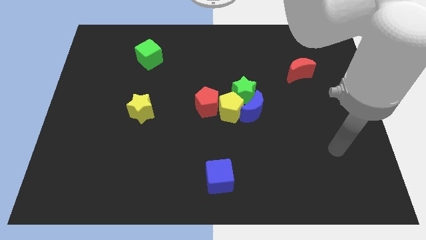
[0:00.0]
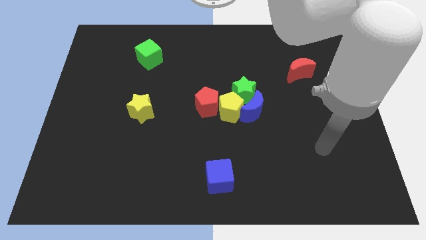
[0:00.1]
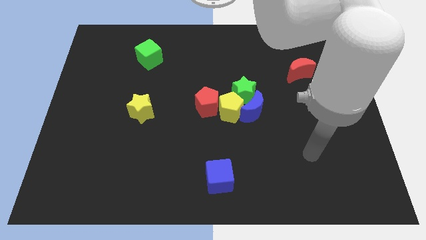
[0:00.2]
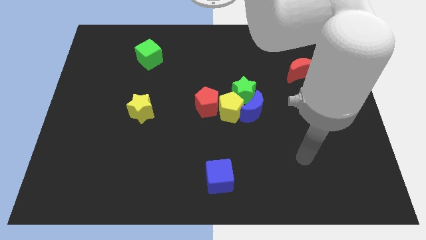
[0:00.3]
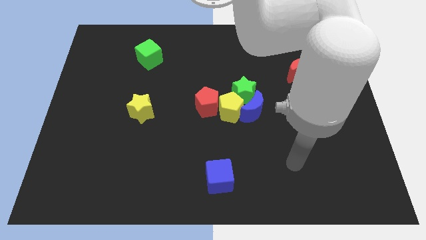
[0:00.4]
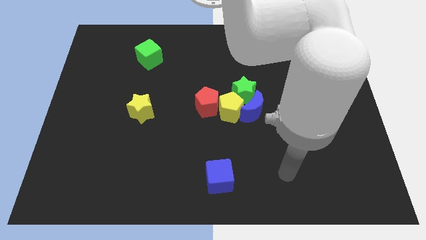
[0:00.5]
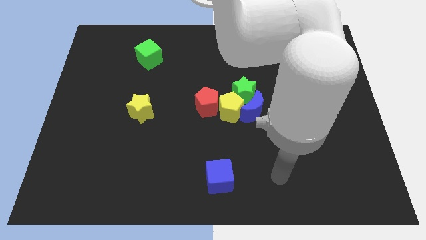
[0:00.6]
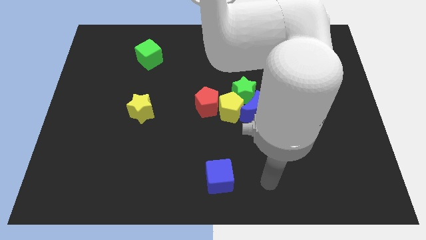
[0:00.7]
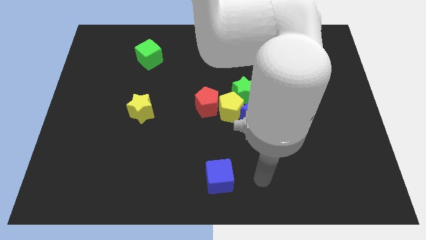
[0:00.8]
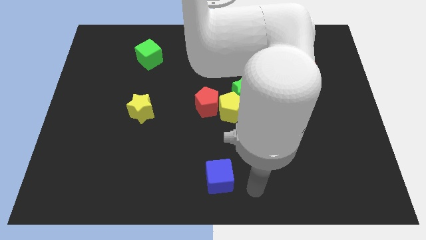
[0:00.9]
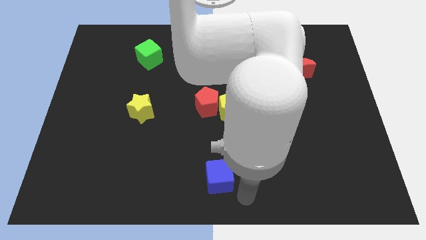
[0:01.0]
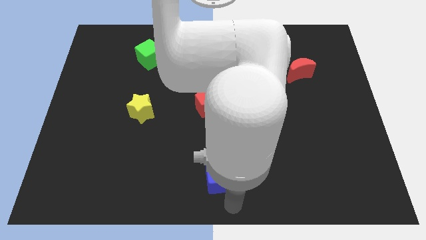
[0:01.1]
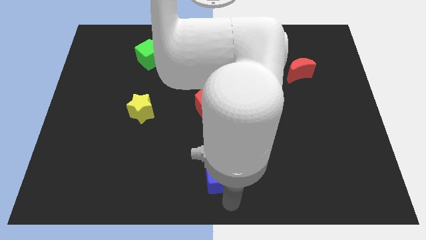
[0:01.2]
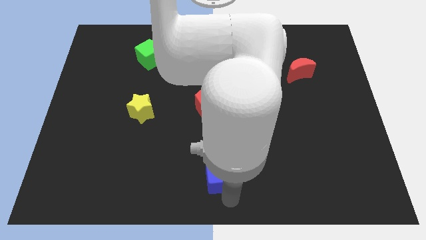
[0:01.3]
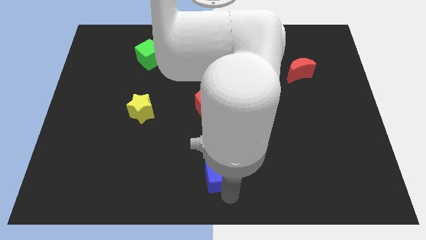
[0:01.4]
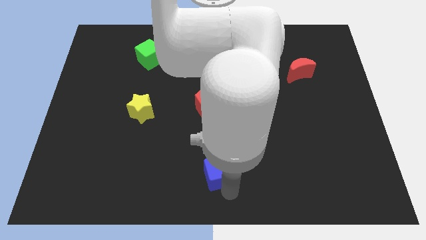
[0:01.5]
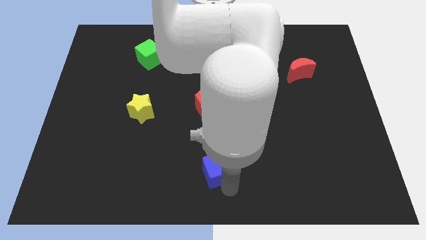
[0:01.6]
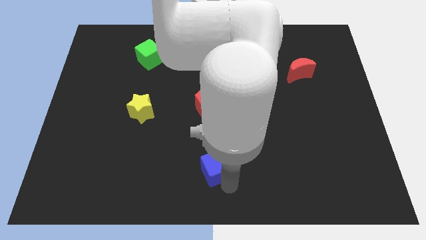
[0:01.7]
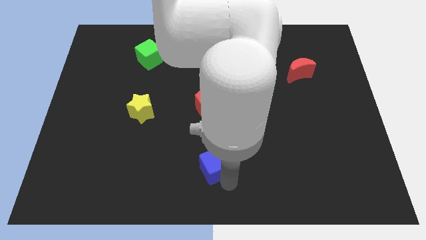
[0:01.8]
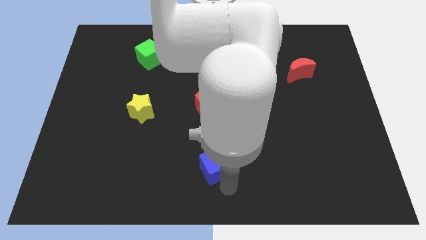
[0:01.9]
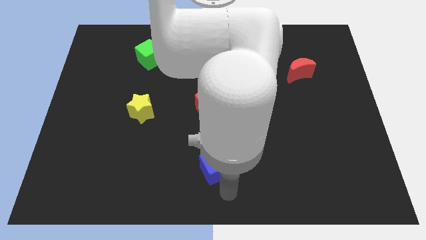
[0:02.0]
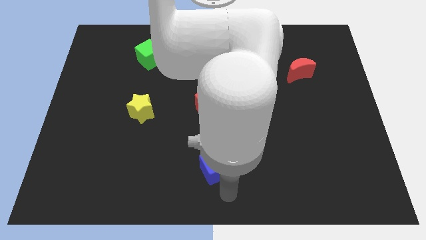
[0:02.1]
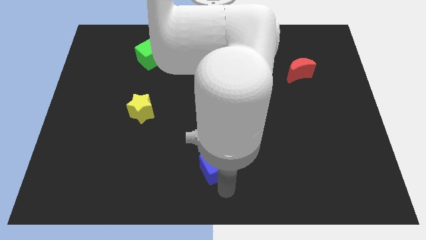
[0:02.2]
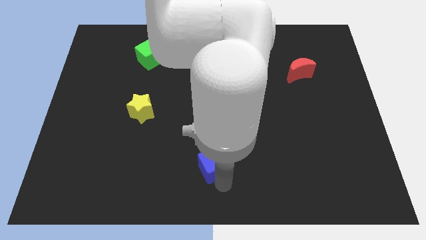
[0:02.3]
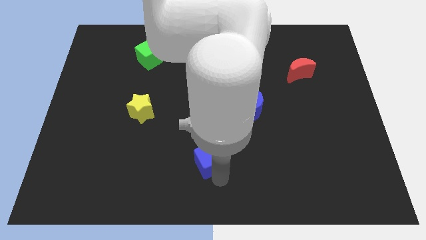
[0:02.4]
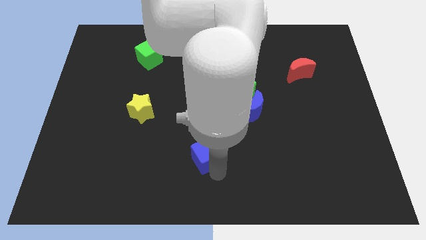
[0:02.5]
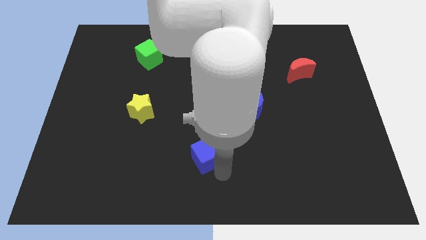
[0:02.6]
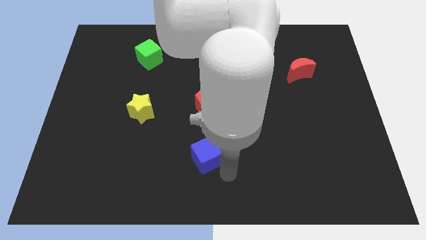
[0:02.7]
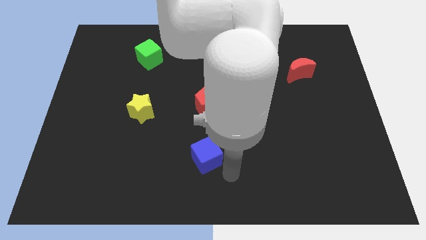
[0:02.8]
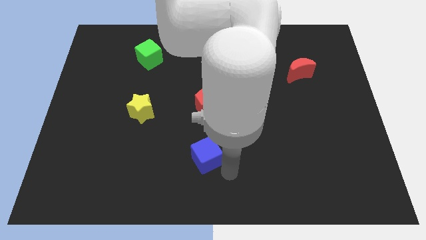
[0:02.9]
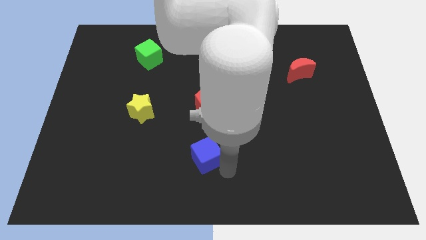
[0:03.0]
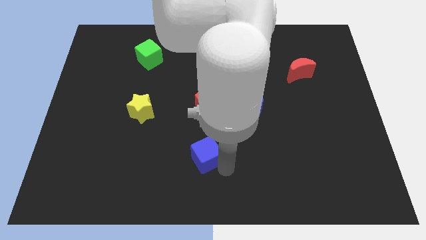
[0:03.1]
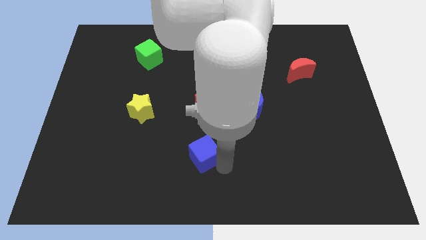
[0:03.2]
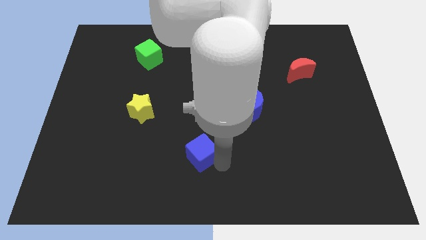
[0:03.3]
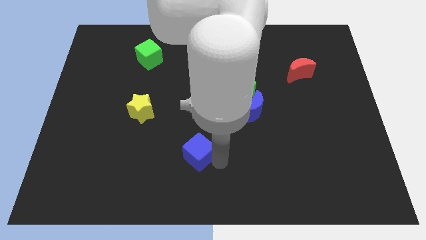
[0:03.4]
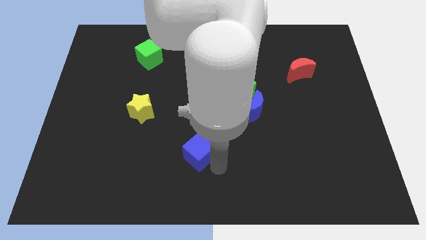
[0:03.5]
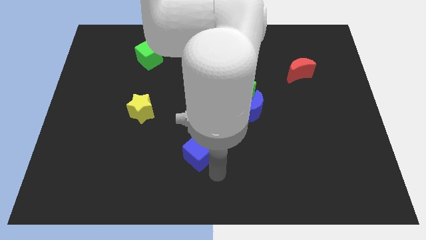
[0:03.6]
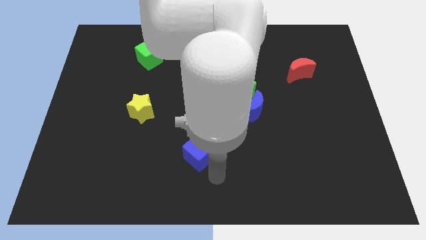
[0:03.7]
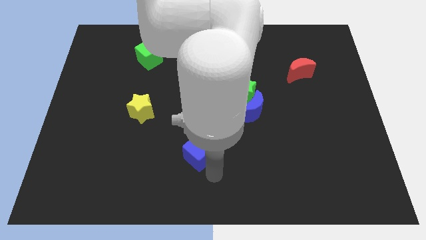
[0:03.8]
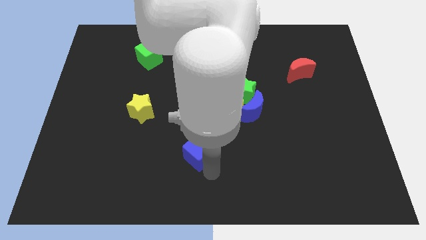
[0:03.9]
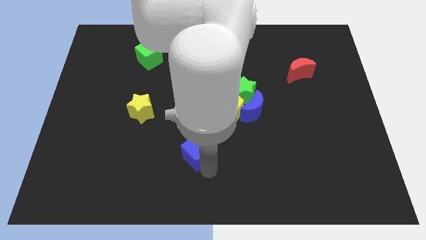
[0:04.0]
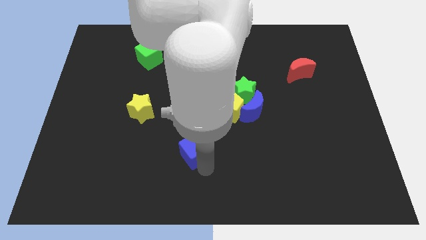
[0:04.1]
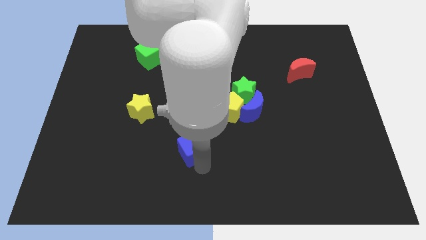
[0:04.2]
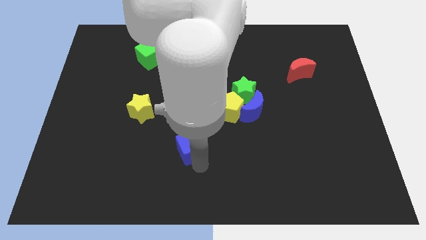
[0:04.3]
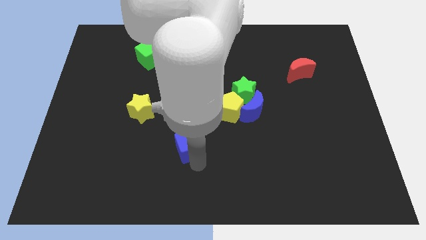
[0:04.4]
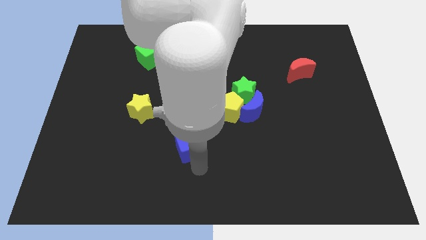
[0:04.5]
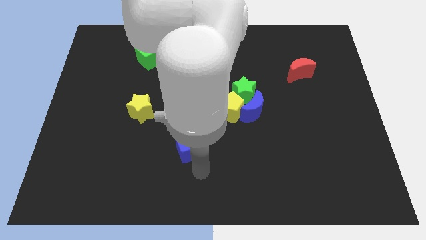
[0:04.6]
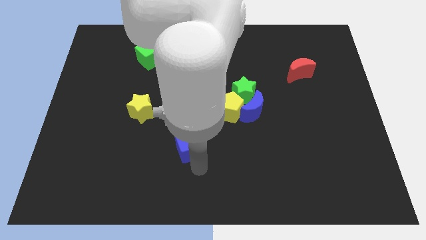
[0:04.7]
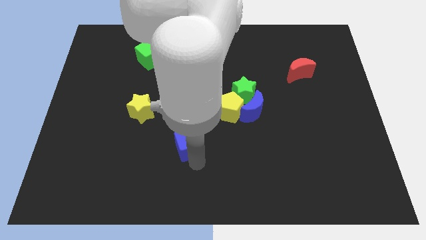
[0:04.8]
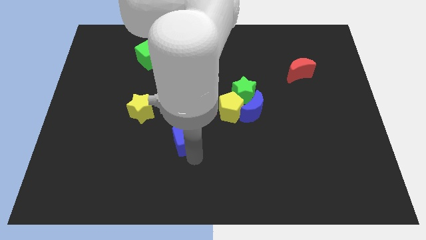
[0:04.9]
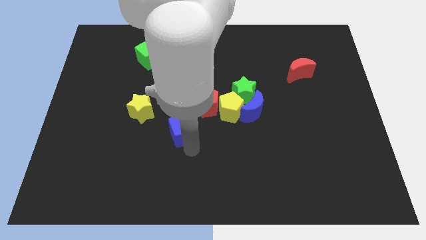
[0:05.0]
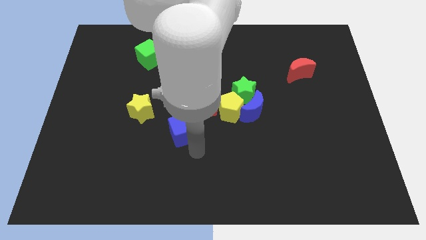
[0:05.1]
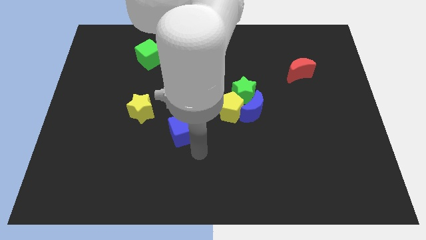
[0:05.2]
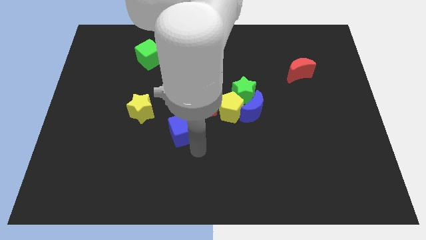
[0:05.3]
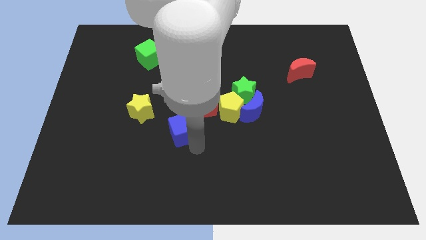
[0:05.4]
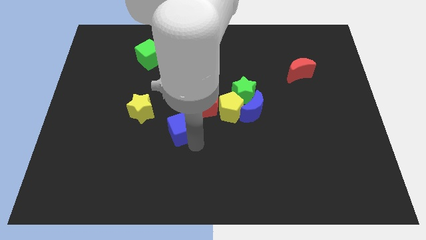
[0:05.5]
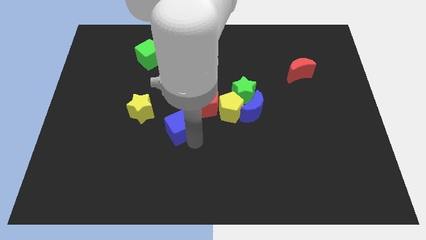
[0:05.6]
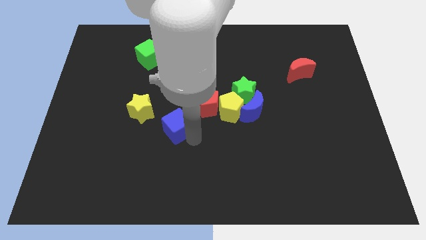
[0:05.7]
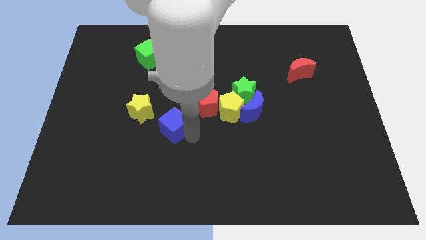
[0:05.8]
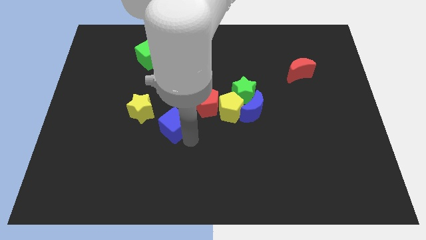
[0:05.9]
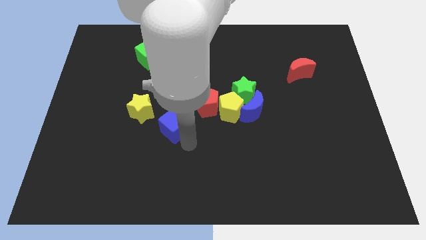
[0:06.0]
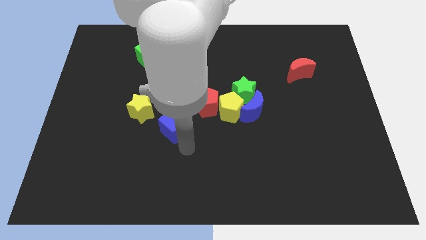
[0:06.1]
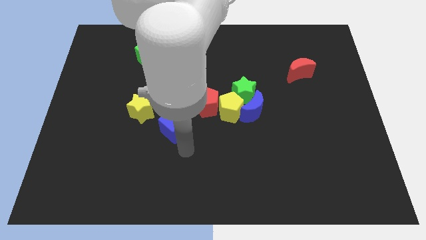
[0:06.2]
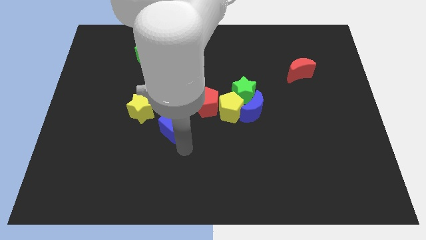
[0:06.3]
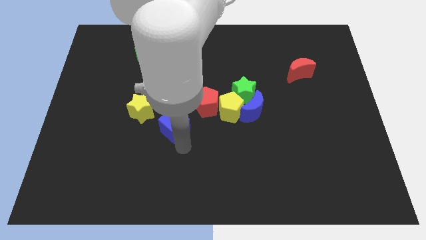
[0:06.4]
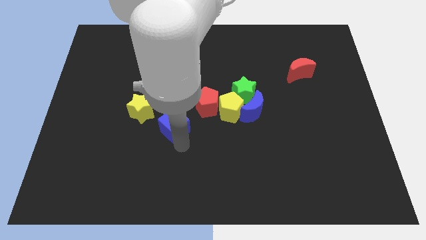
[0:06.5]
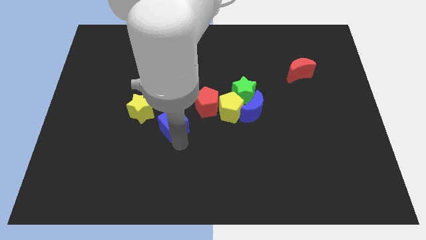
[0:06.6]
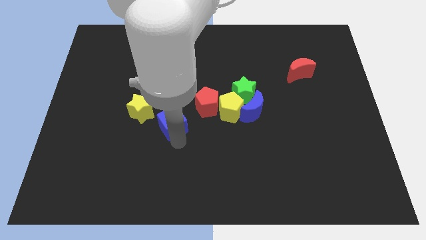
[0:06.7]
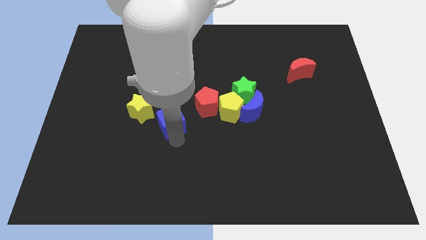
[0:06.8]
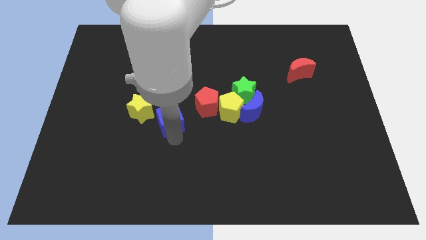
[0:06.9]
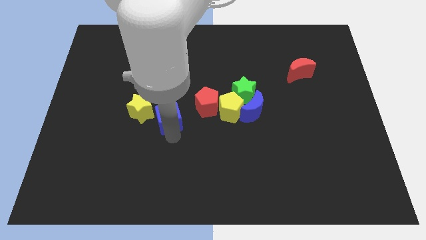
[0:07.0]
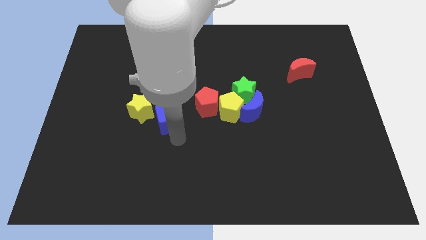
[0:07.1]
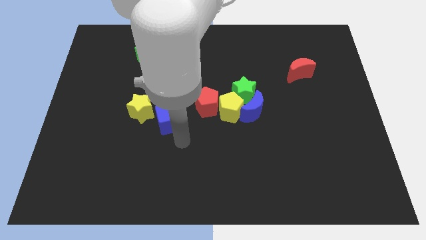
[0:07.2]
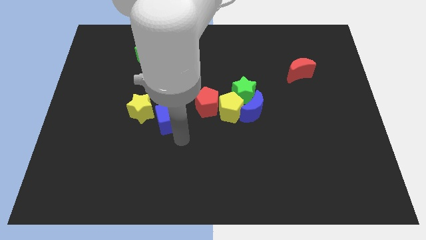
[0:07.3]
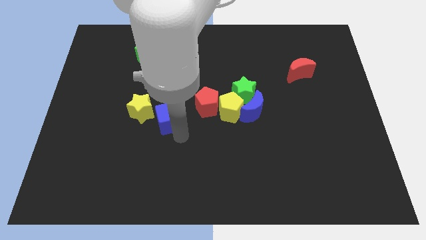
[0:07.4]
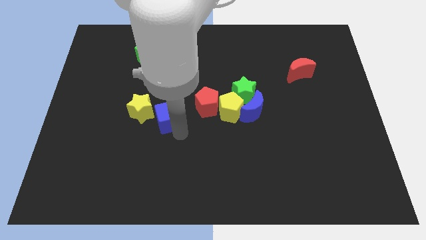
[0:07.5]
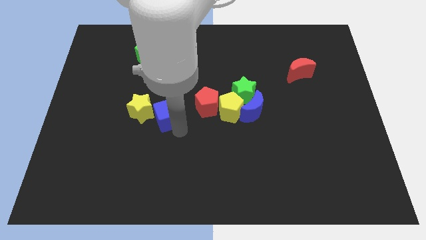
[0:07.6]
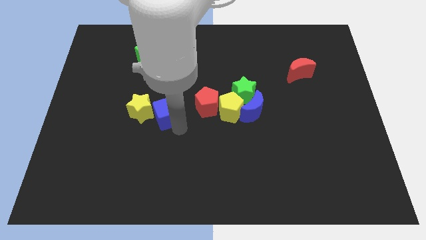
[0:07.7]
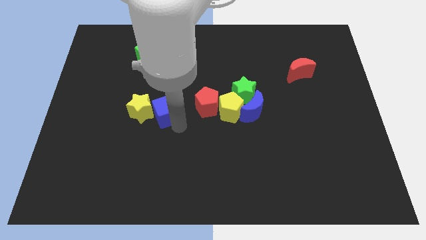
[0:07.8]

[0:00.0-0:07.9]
slide the blue cube upwards and to the left
